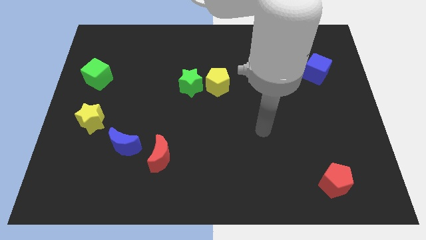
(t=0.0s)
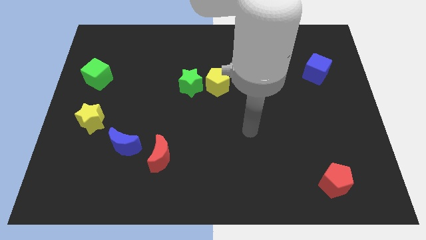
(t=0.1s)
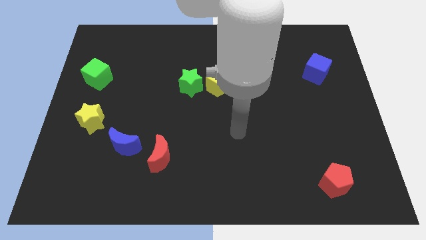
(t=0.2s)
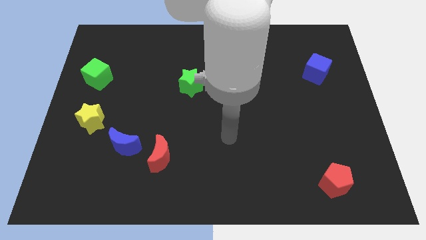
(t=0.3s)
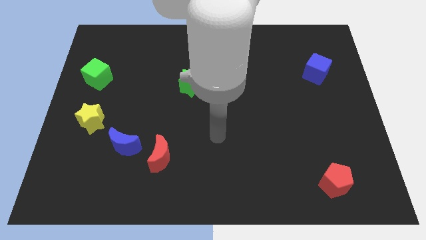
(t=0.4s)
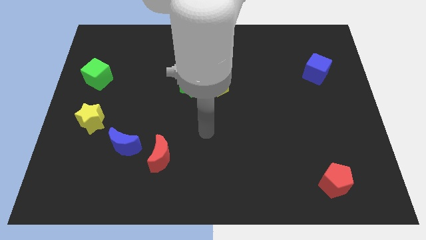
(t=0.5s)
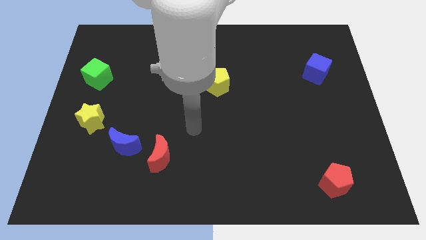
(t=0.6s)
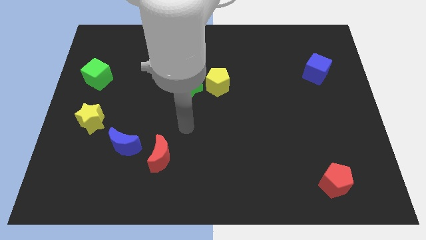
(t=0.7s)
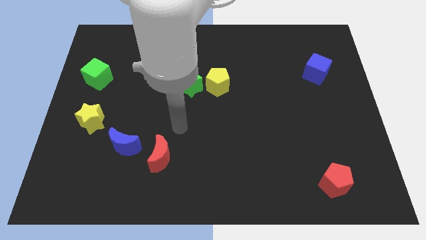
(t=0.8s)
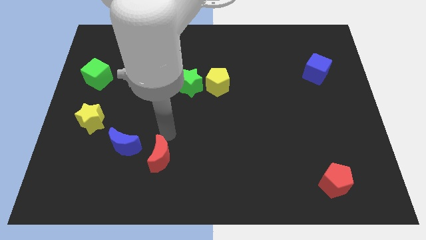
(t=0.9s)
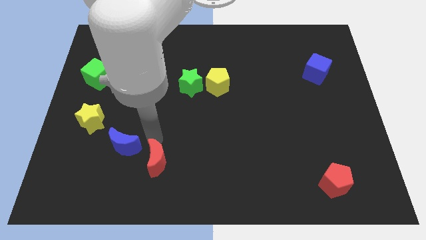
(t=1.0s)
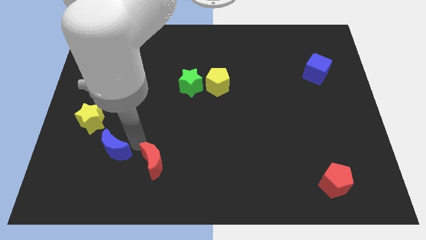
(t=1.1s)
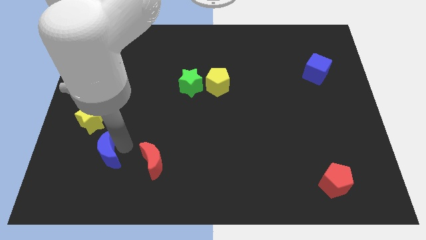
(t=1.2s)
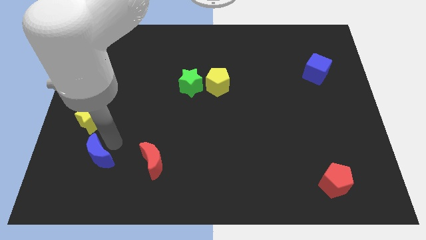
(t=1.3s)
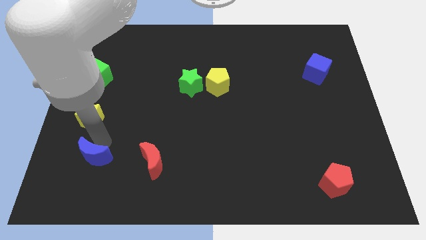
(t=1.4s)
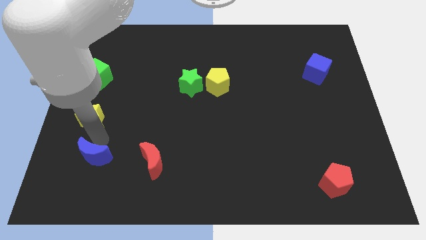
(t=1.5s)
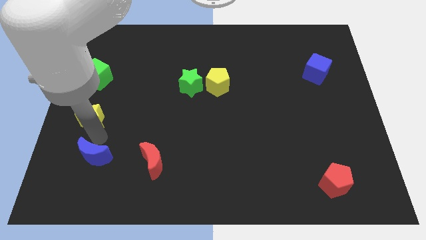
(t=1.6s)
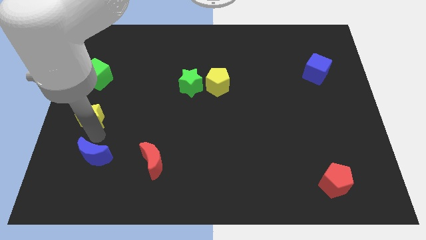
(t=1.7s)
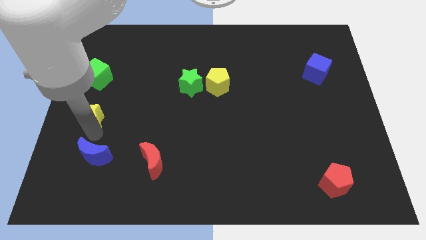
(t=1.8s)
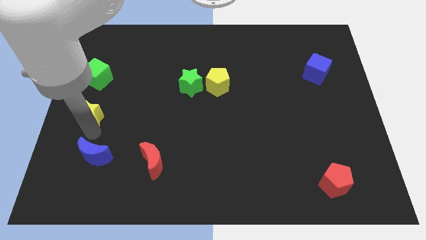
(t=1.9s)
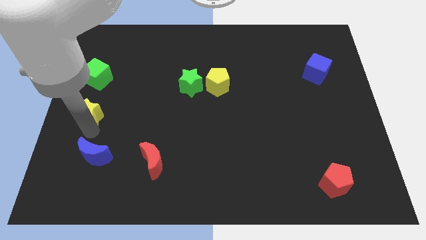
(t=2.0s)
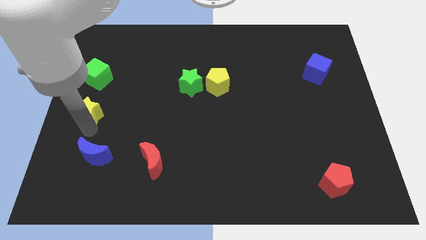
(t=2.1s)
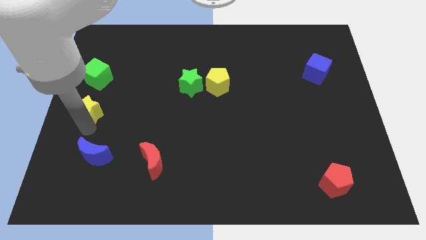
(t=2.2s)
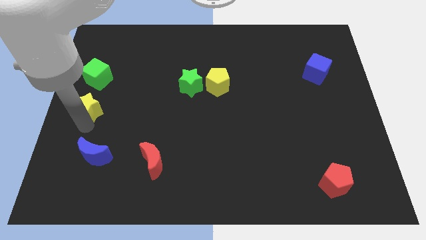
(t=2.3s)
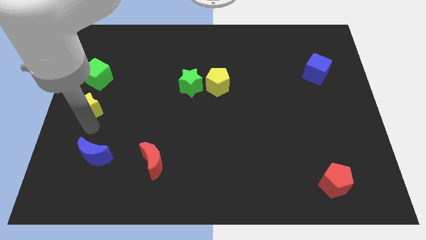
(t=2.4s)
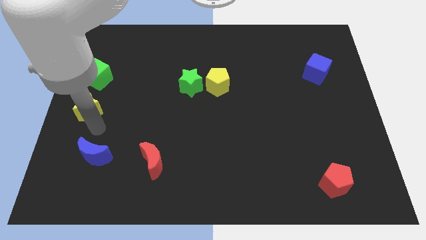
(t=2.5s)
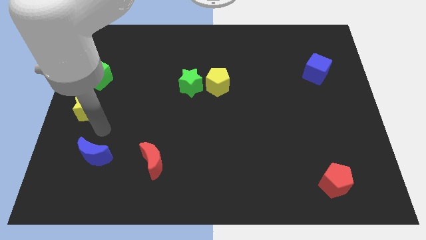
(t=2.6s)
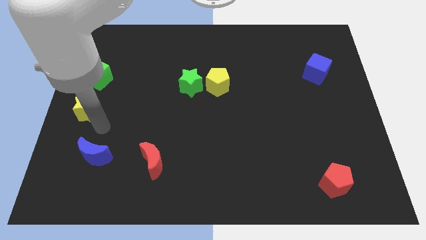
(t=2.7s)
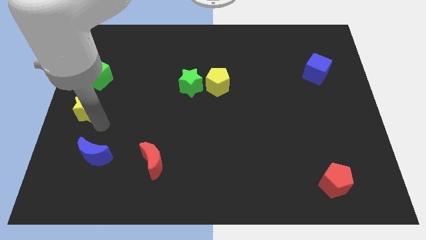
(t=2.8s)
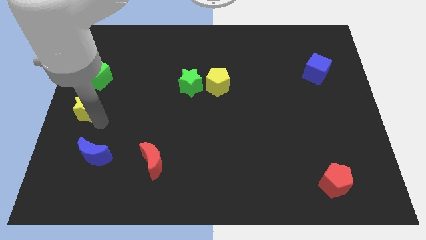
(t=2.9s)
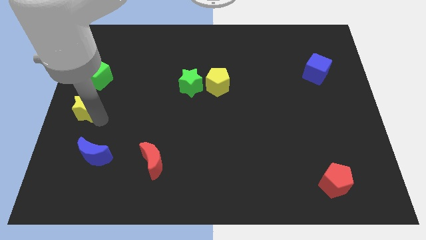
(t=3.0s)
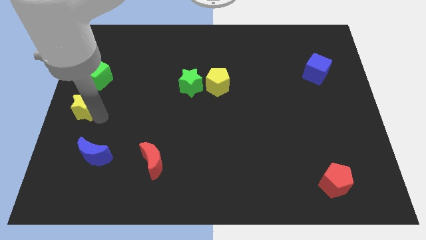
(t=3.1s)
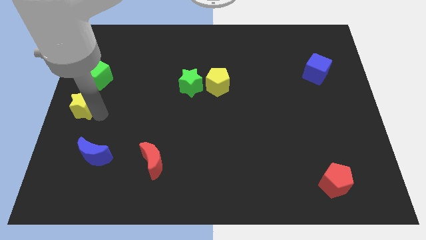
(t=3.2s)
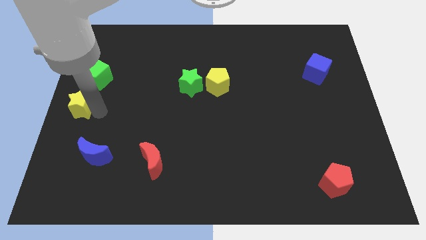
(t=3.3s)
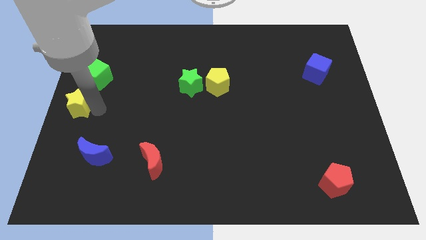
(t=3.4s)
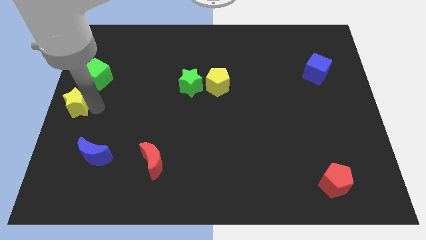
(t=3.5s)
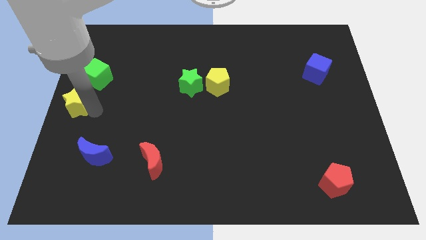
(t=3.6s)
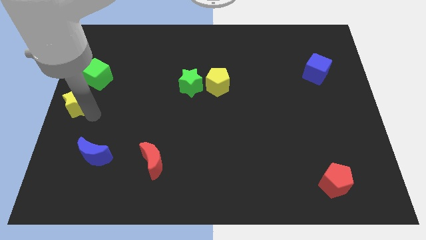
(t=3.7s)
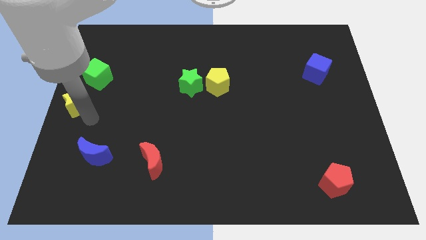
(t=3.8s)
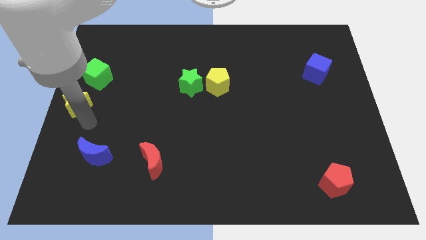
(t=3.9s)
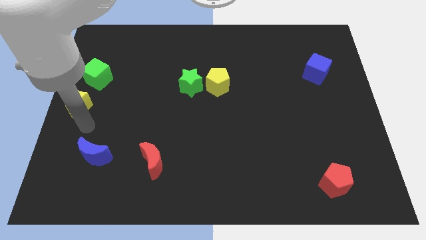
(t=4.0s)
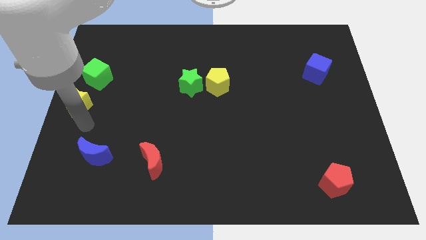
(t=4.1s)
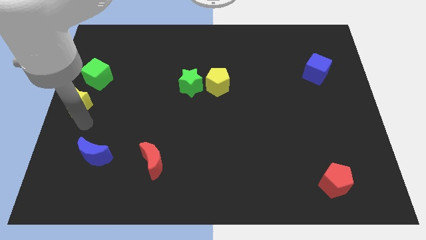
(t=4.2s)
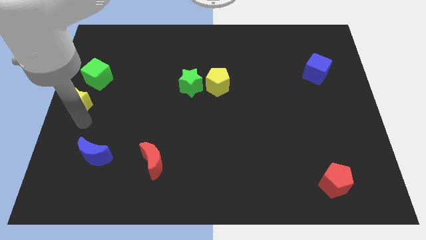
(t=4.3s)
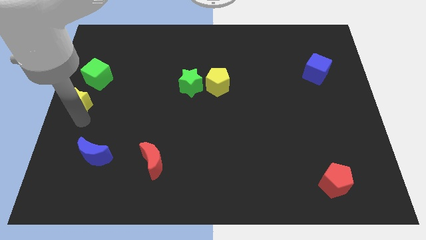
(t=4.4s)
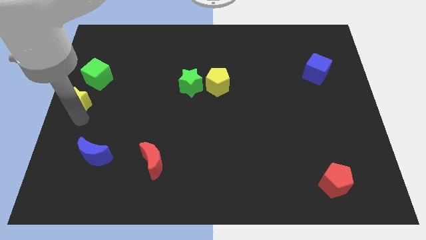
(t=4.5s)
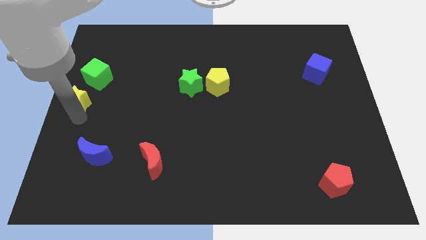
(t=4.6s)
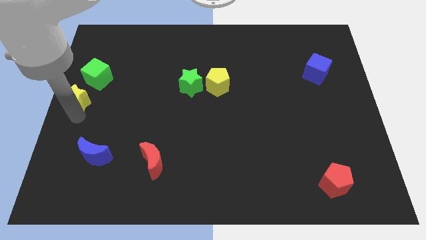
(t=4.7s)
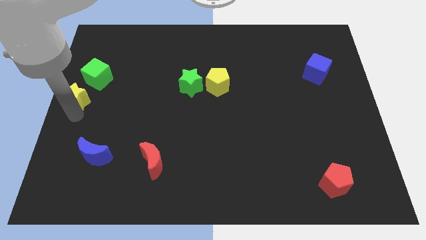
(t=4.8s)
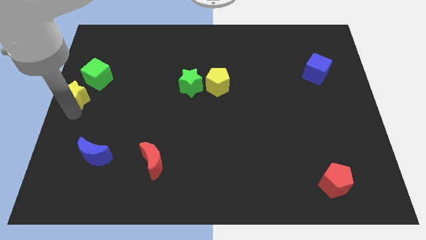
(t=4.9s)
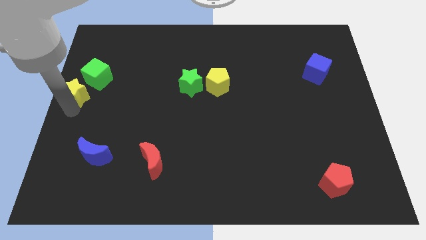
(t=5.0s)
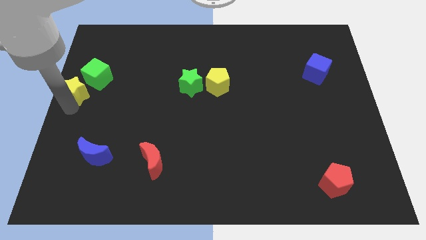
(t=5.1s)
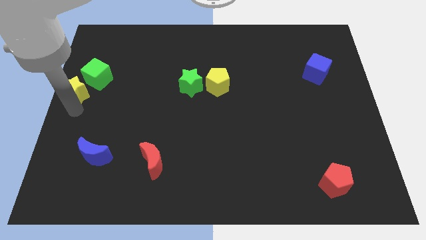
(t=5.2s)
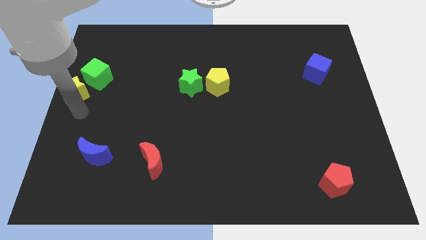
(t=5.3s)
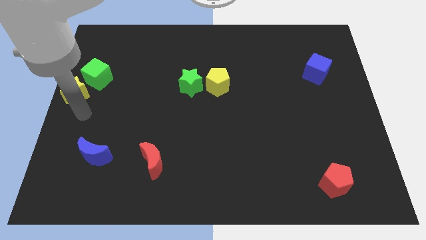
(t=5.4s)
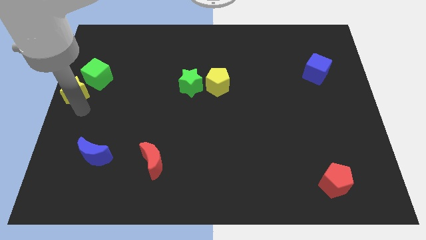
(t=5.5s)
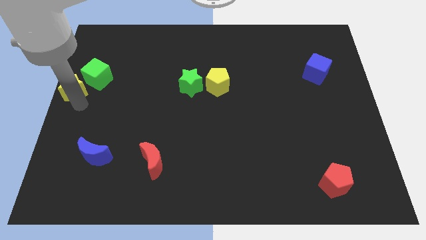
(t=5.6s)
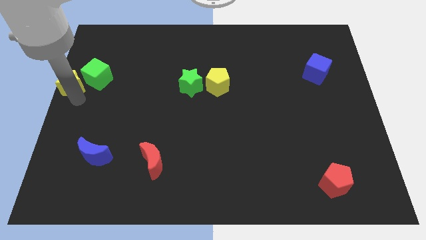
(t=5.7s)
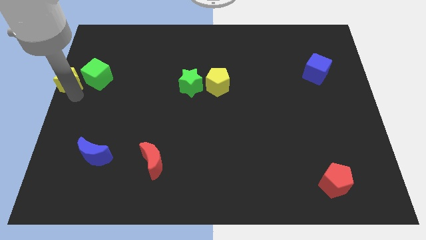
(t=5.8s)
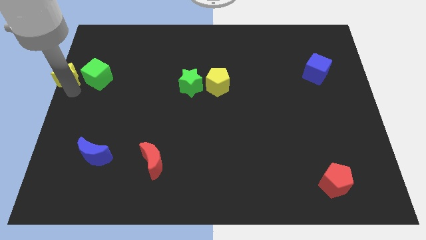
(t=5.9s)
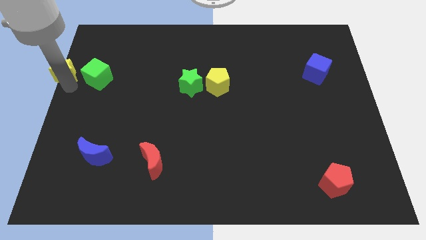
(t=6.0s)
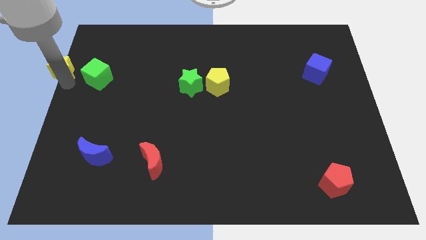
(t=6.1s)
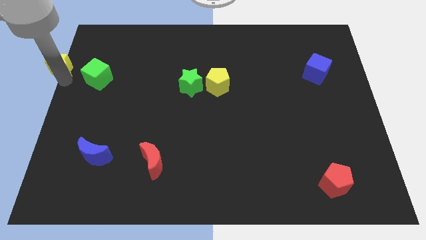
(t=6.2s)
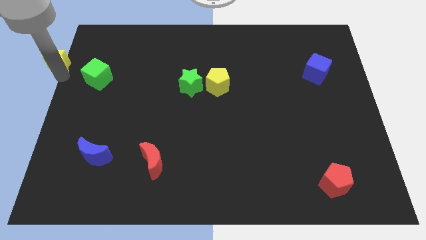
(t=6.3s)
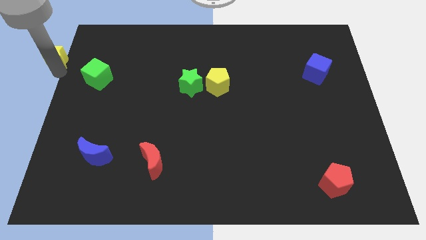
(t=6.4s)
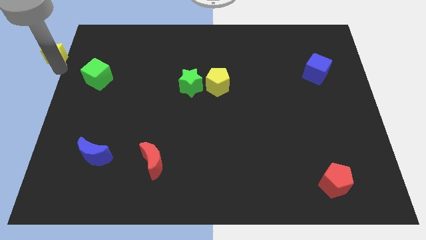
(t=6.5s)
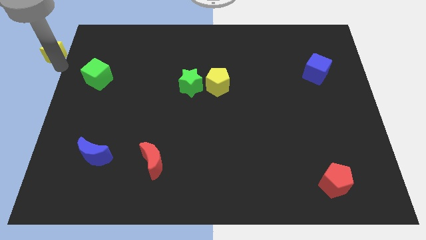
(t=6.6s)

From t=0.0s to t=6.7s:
slide the yellow star to the top left
